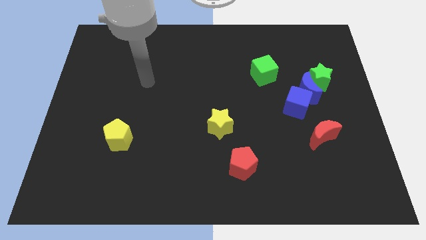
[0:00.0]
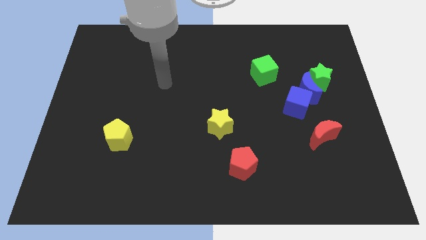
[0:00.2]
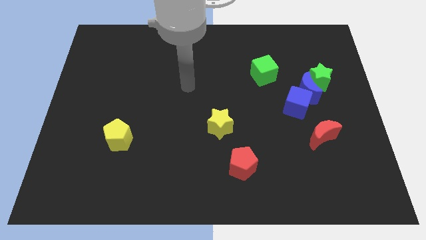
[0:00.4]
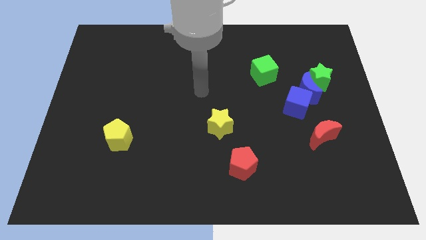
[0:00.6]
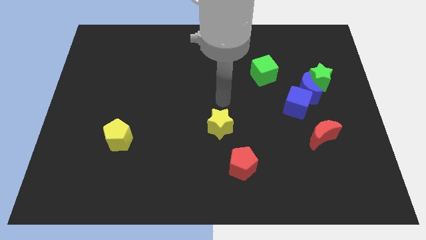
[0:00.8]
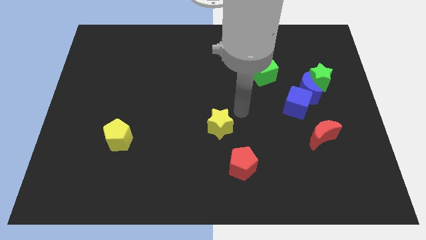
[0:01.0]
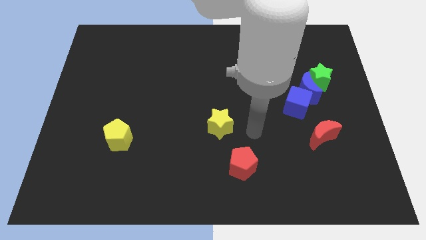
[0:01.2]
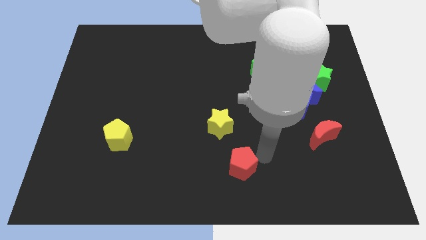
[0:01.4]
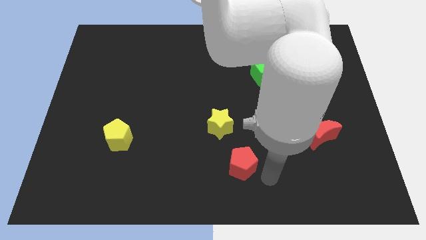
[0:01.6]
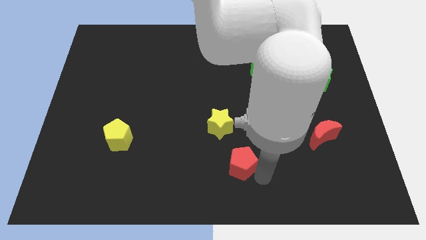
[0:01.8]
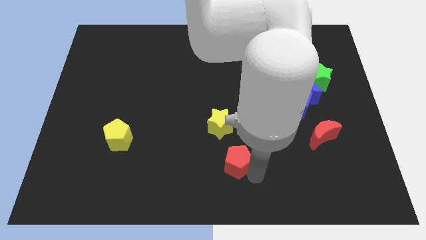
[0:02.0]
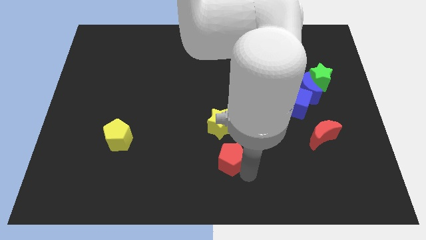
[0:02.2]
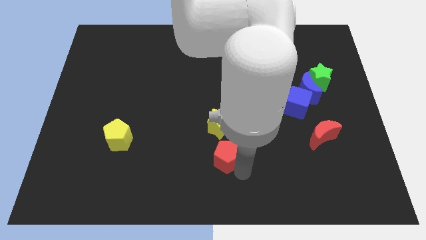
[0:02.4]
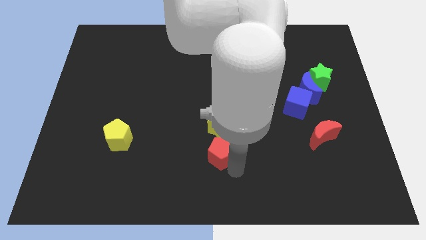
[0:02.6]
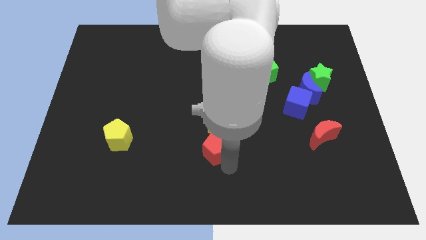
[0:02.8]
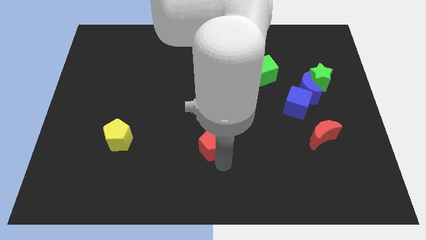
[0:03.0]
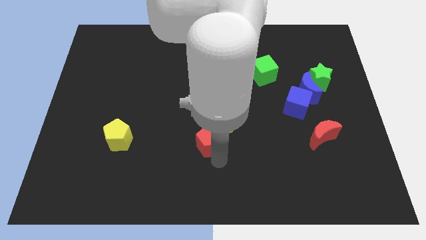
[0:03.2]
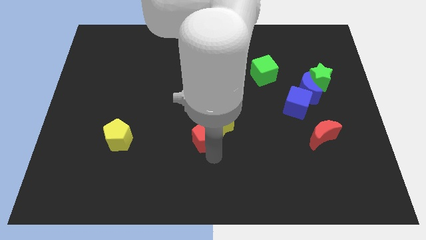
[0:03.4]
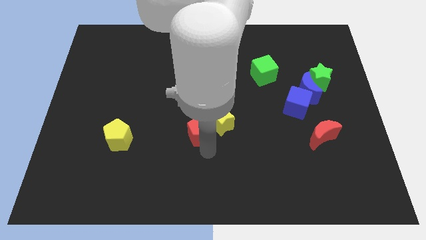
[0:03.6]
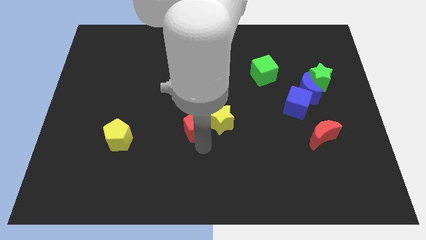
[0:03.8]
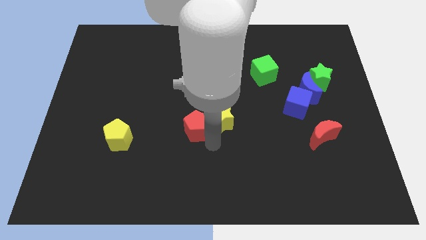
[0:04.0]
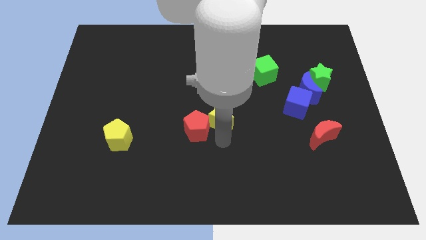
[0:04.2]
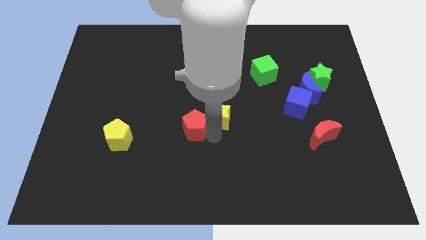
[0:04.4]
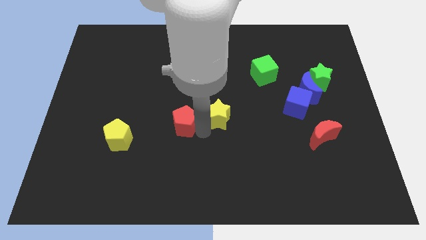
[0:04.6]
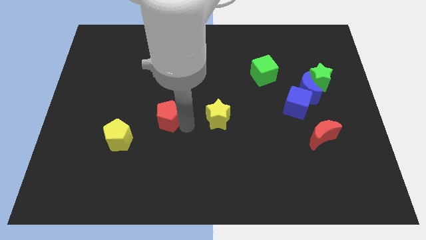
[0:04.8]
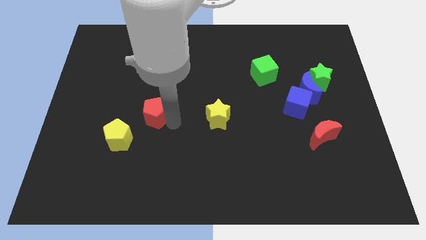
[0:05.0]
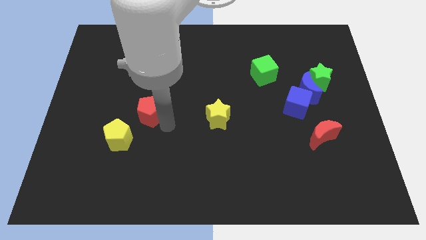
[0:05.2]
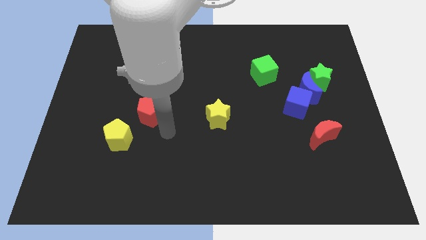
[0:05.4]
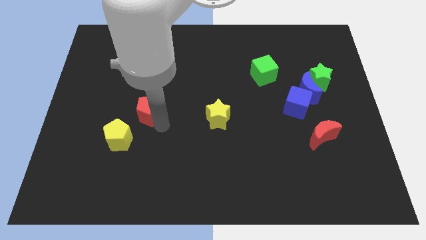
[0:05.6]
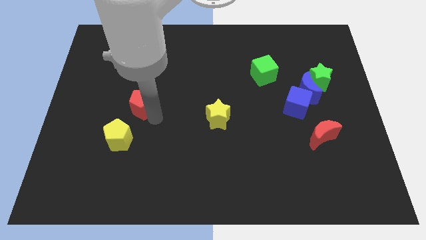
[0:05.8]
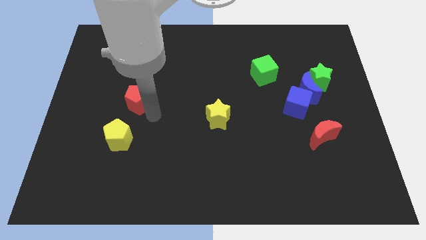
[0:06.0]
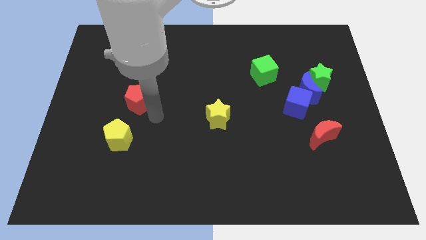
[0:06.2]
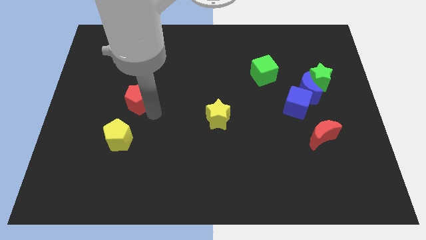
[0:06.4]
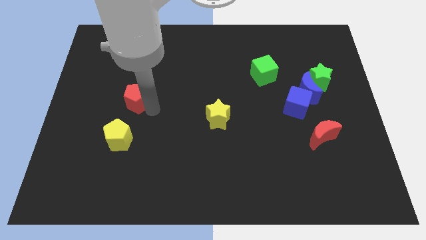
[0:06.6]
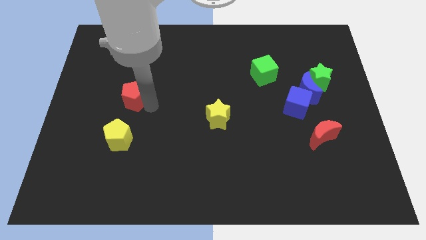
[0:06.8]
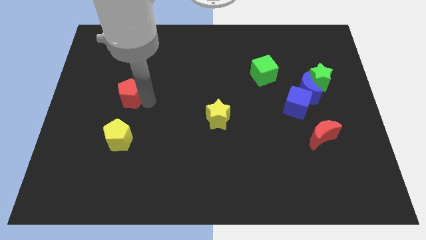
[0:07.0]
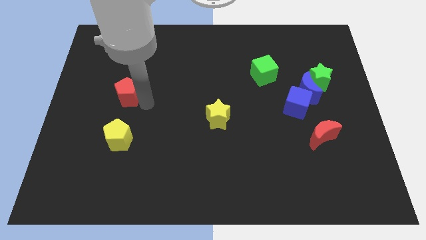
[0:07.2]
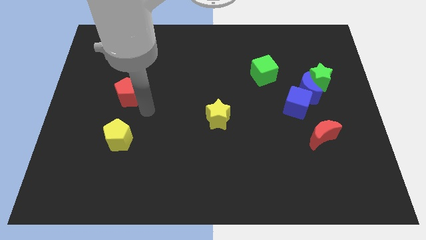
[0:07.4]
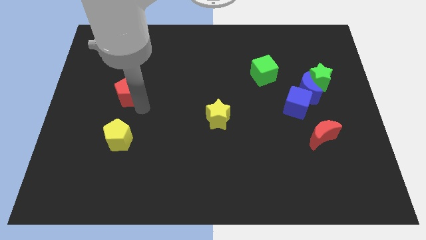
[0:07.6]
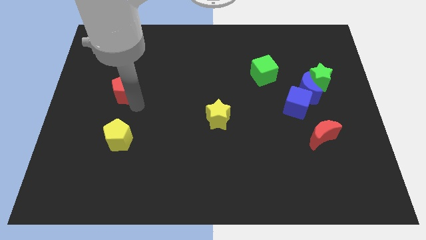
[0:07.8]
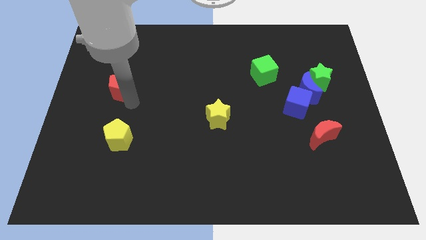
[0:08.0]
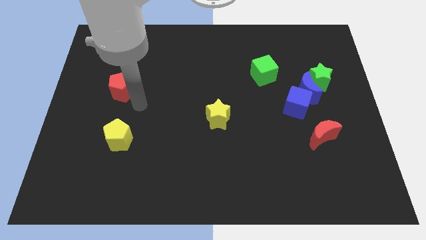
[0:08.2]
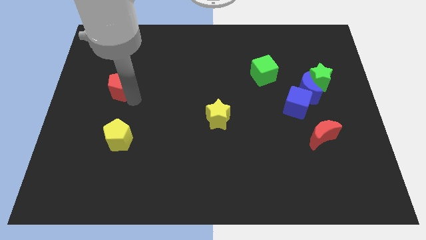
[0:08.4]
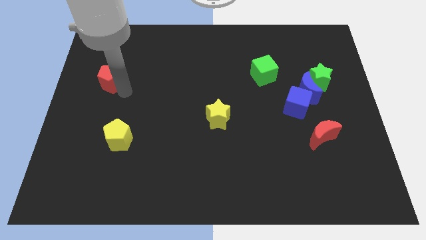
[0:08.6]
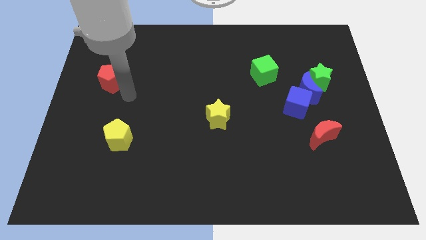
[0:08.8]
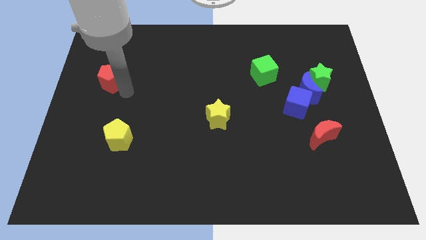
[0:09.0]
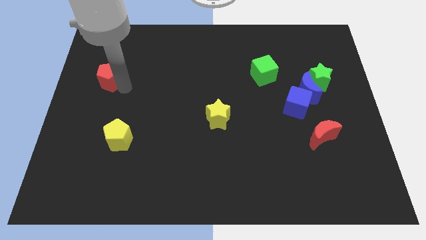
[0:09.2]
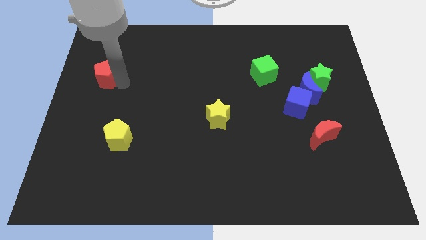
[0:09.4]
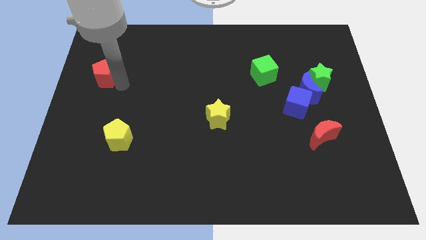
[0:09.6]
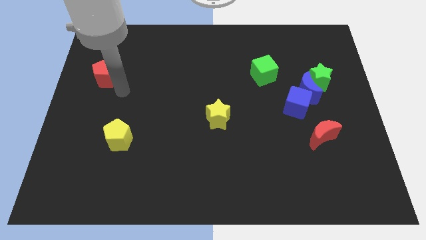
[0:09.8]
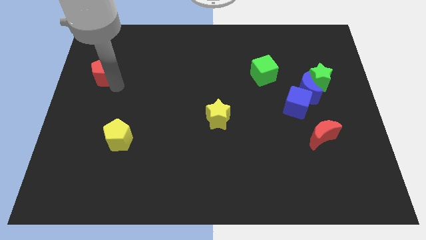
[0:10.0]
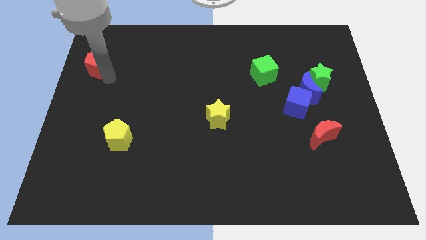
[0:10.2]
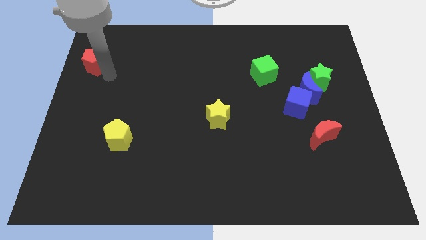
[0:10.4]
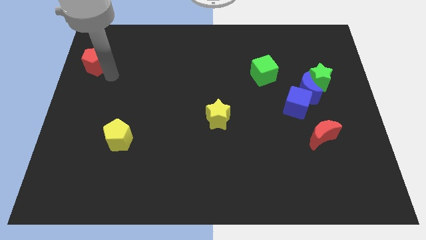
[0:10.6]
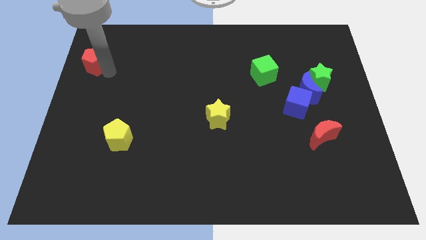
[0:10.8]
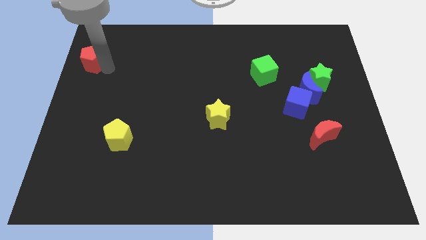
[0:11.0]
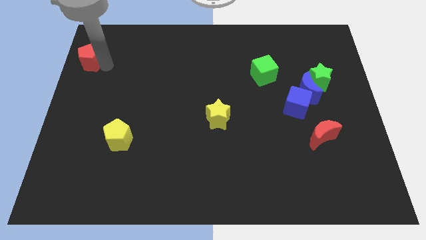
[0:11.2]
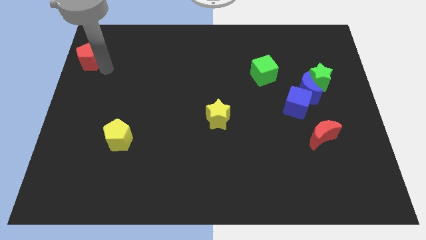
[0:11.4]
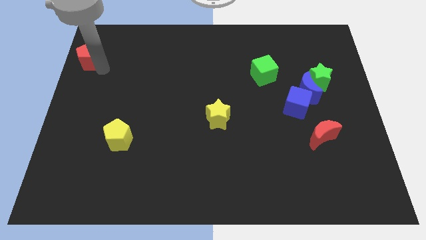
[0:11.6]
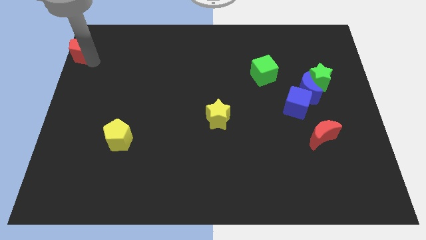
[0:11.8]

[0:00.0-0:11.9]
move the red pentagon to the top left of the board
